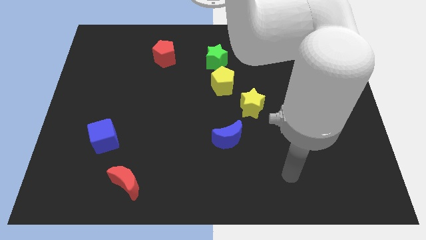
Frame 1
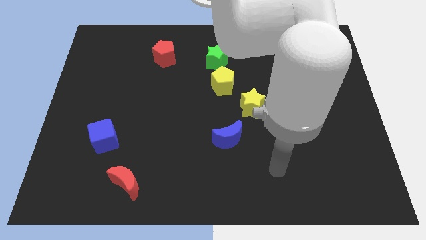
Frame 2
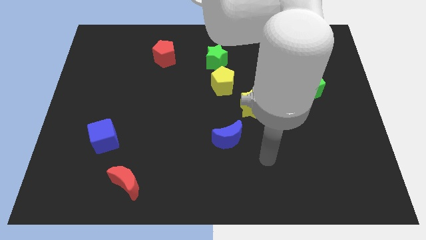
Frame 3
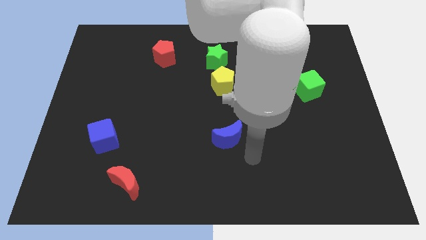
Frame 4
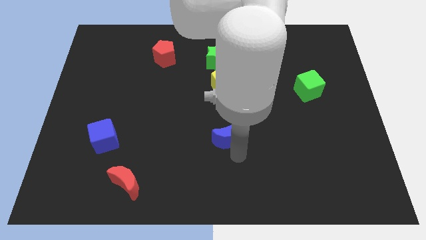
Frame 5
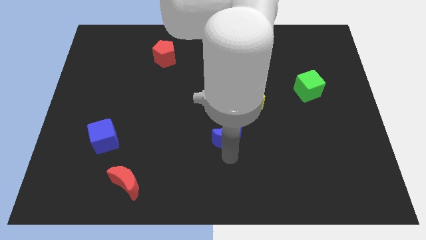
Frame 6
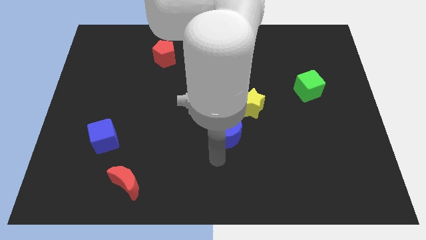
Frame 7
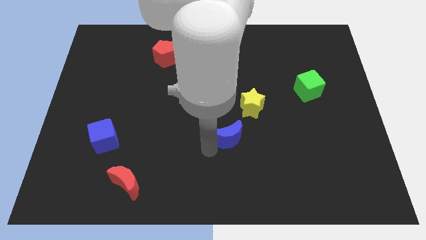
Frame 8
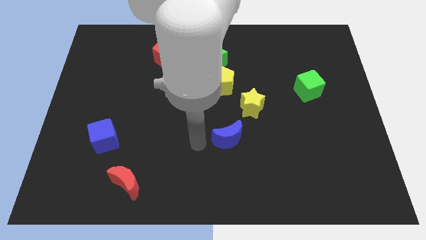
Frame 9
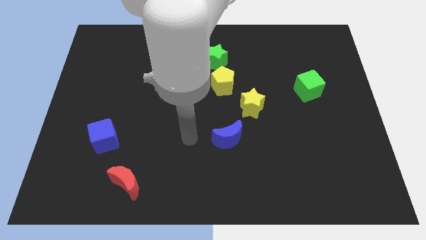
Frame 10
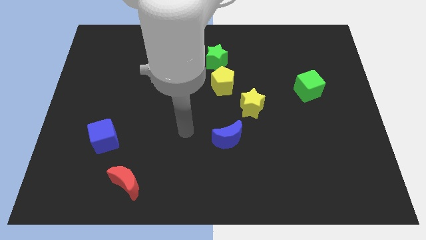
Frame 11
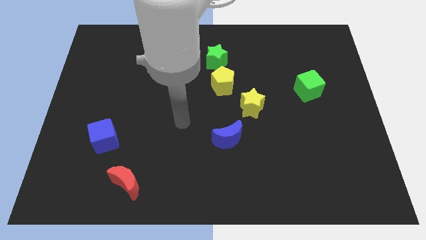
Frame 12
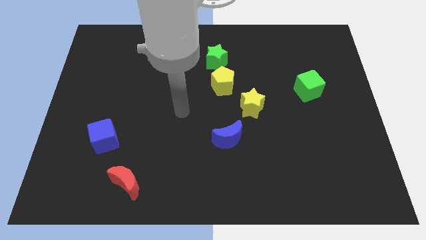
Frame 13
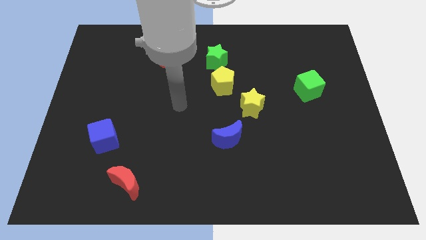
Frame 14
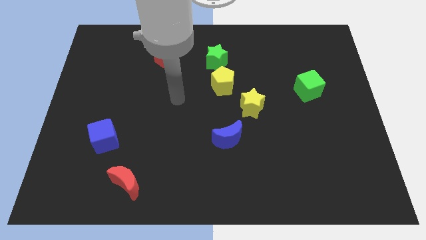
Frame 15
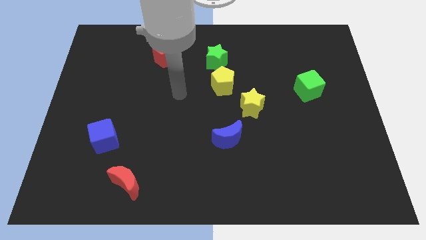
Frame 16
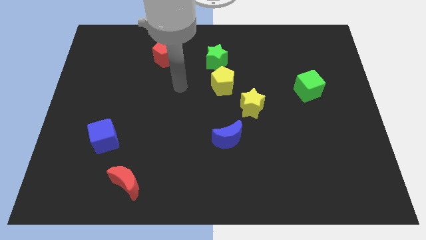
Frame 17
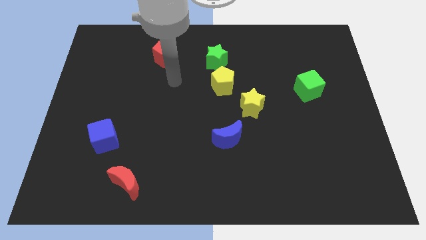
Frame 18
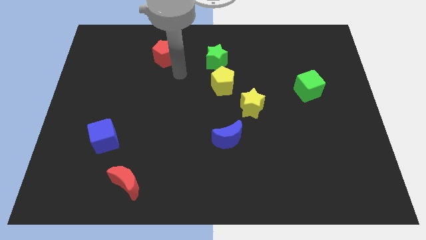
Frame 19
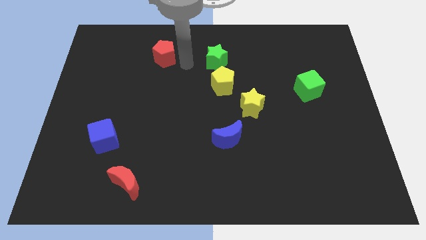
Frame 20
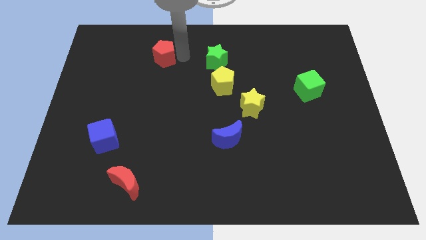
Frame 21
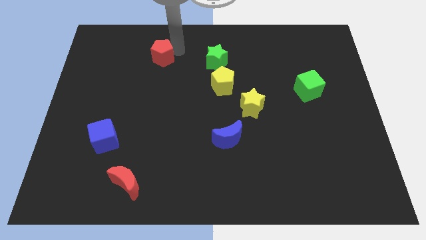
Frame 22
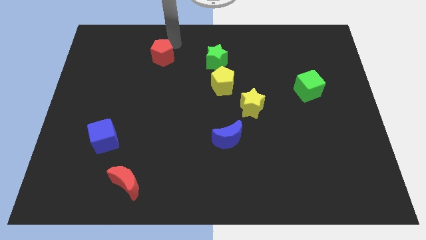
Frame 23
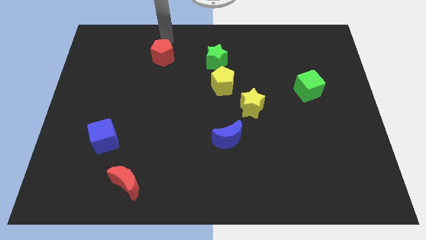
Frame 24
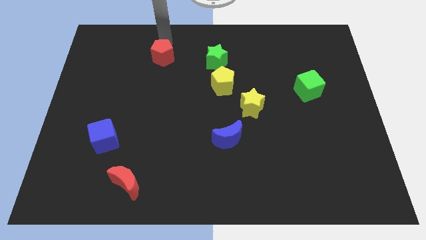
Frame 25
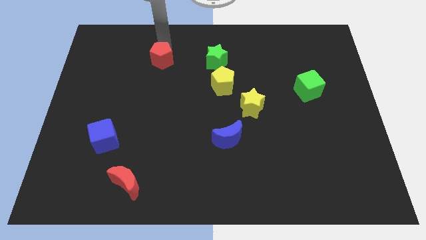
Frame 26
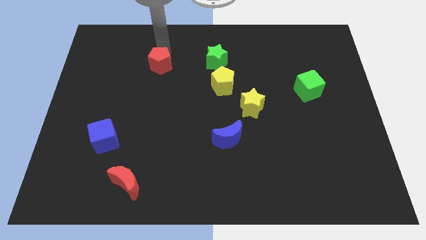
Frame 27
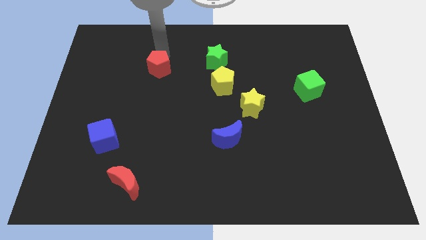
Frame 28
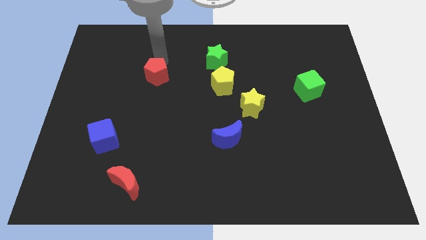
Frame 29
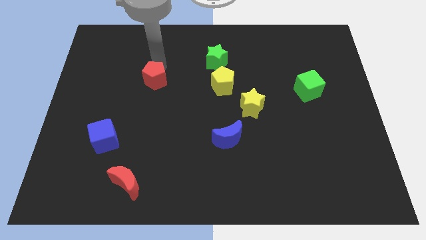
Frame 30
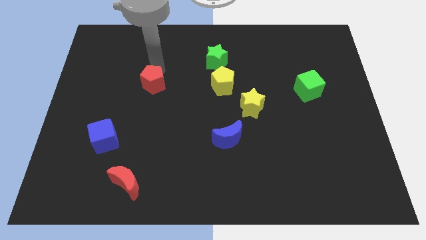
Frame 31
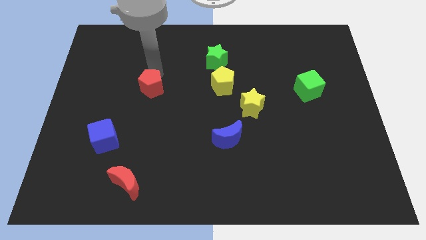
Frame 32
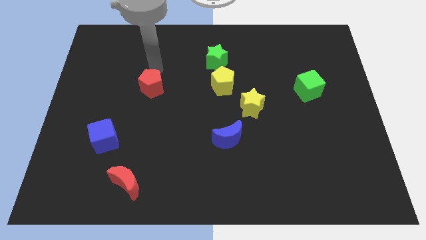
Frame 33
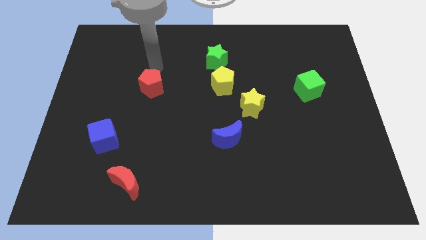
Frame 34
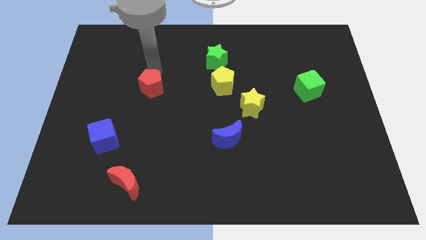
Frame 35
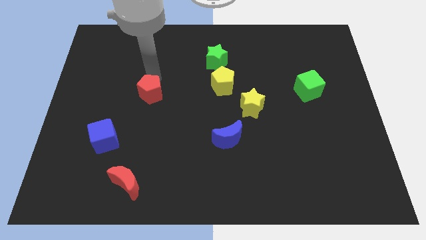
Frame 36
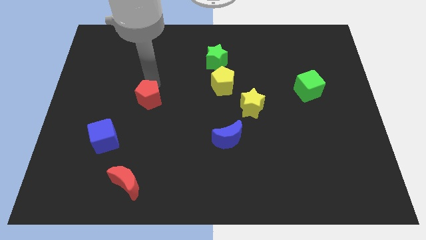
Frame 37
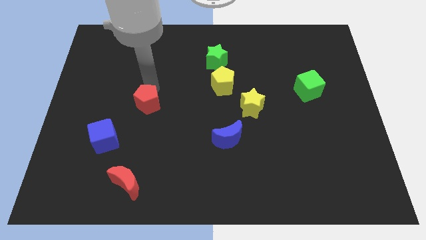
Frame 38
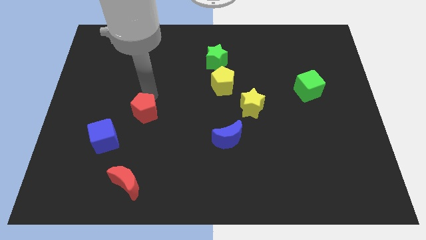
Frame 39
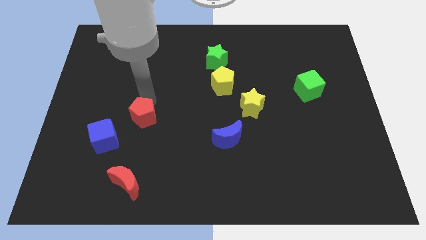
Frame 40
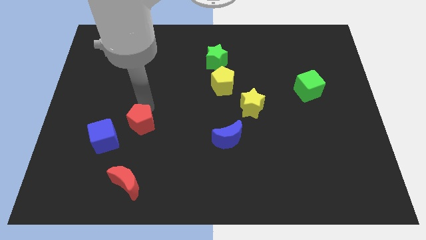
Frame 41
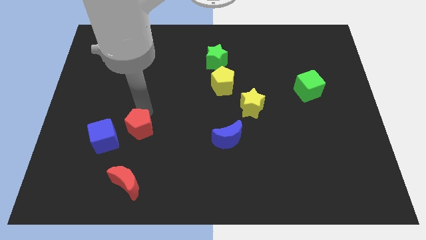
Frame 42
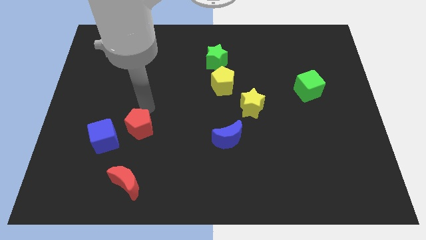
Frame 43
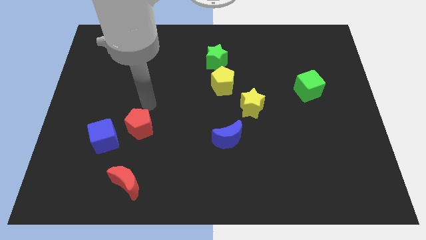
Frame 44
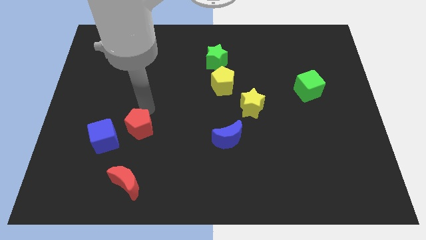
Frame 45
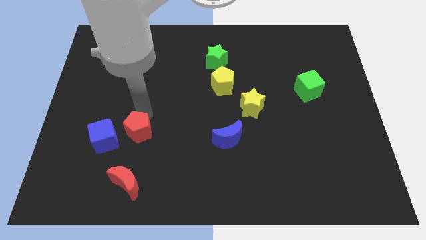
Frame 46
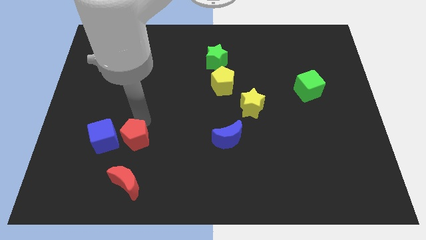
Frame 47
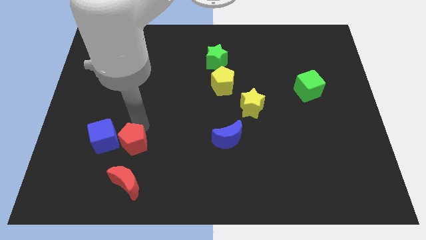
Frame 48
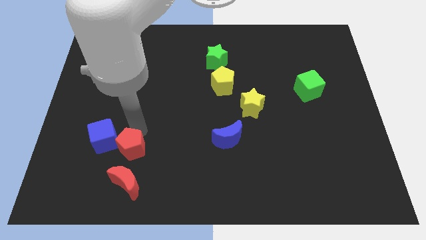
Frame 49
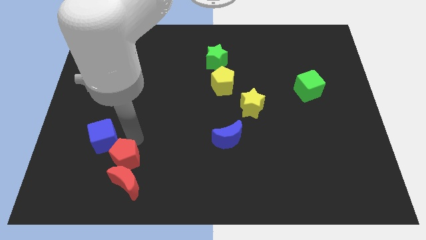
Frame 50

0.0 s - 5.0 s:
move the red pentagon to the red moon

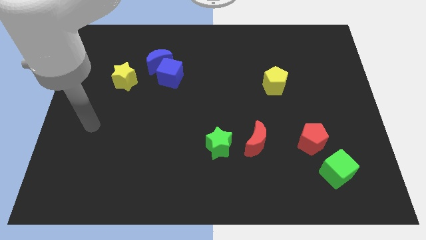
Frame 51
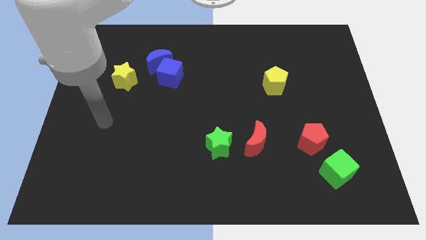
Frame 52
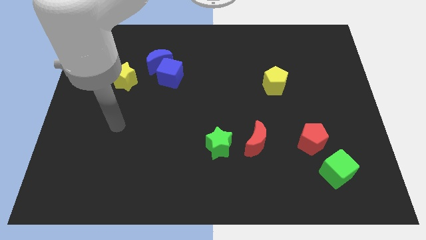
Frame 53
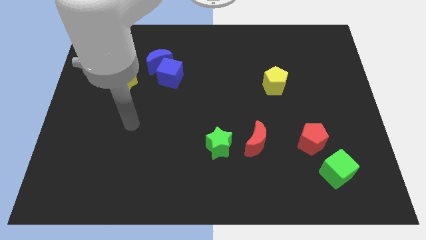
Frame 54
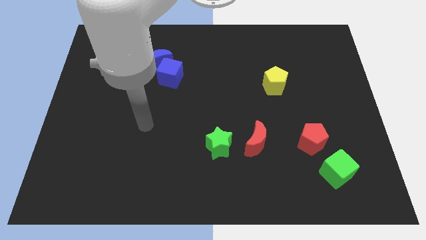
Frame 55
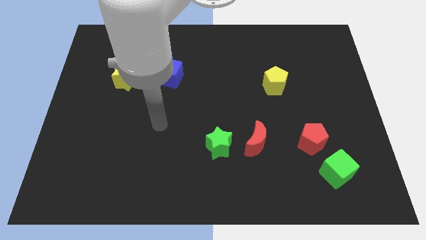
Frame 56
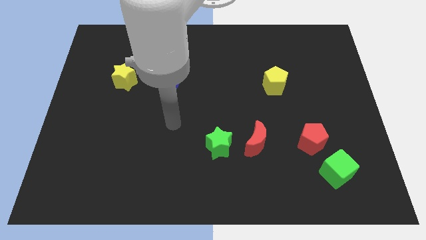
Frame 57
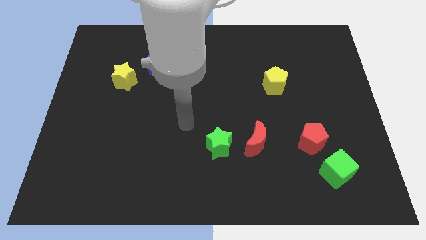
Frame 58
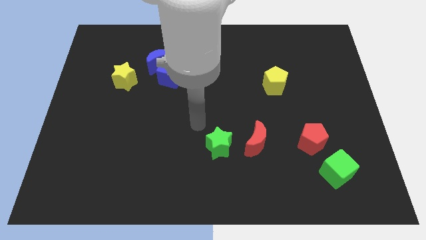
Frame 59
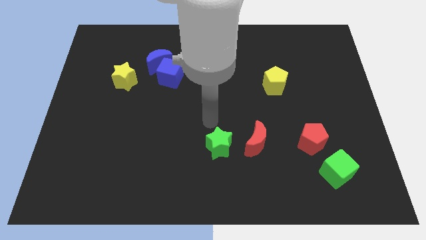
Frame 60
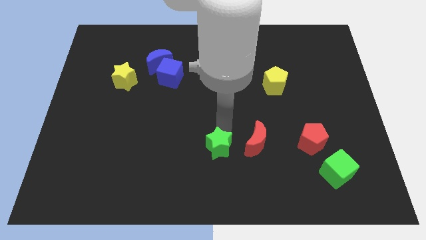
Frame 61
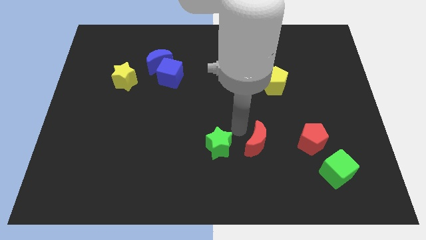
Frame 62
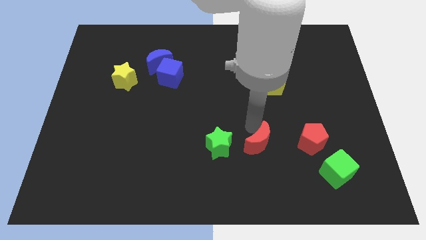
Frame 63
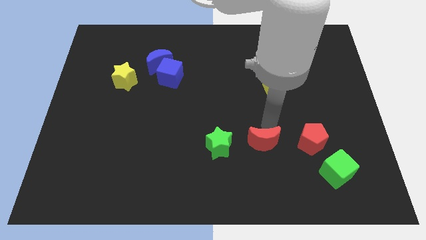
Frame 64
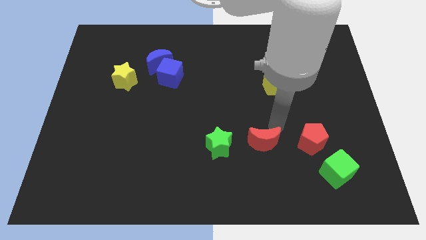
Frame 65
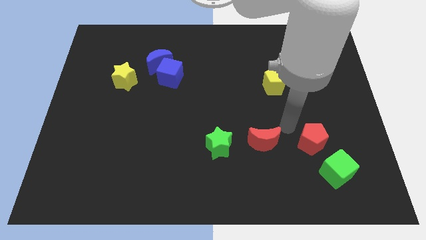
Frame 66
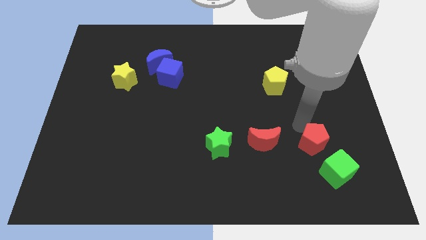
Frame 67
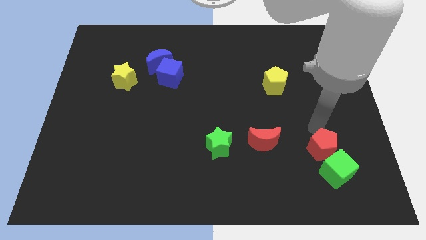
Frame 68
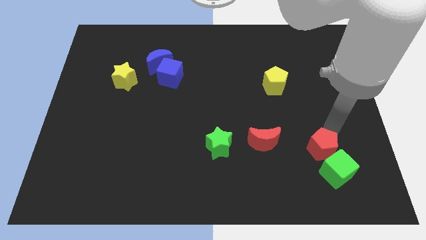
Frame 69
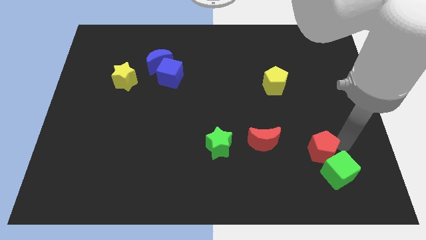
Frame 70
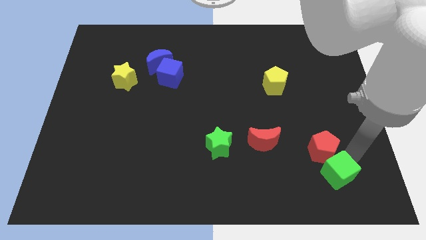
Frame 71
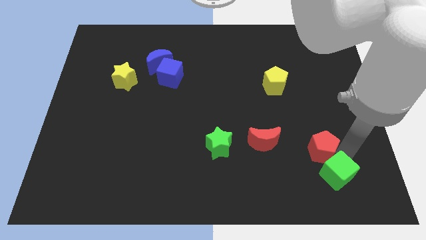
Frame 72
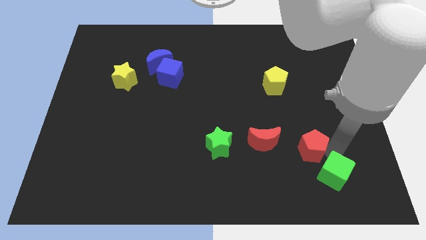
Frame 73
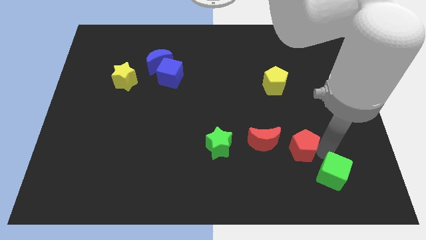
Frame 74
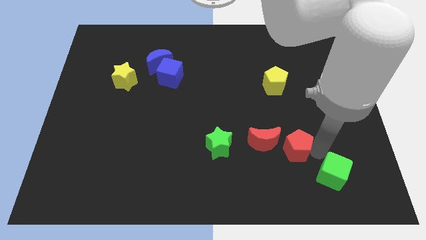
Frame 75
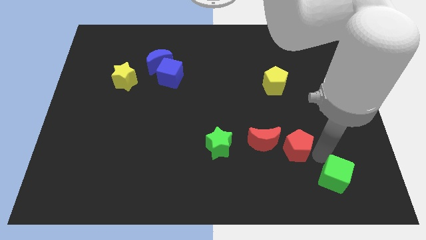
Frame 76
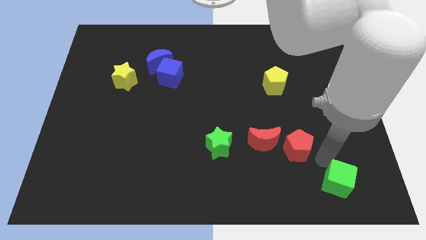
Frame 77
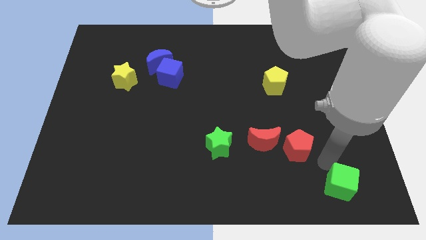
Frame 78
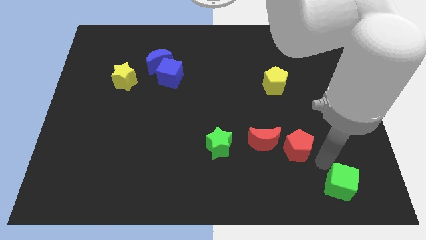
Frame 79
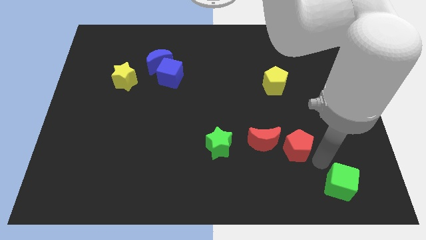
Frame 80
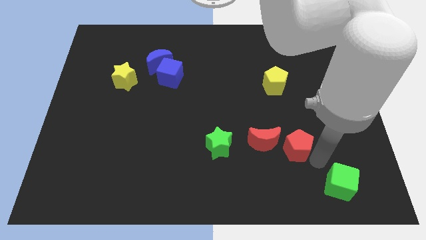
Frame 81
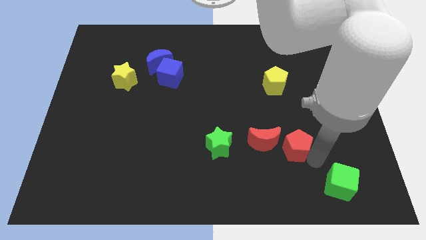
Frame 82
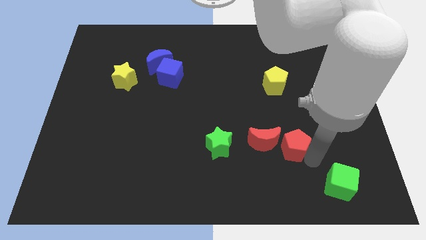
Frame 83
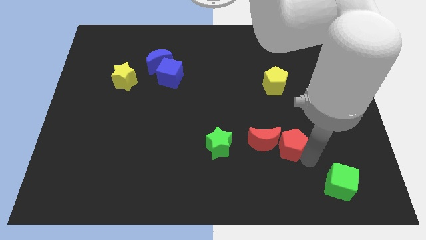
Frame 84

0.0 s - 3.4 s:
put the red pentagon to the red moon
